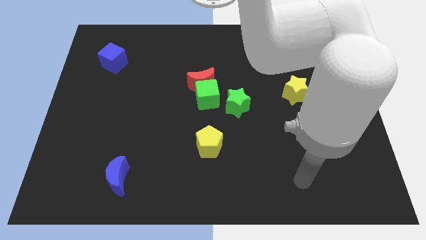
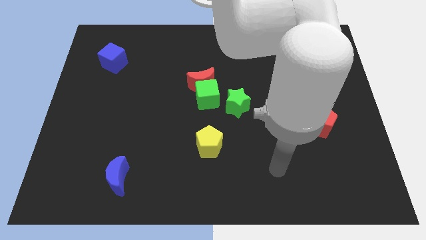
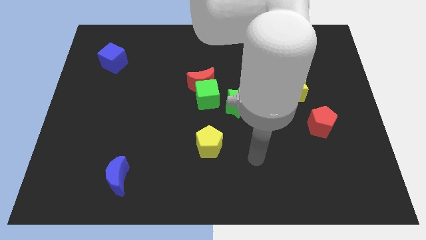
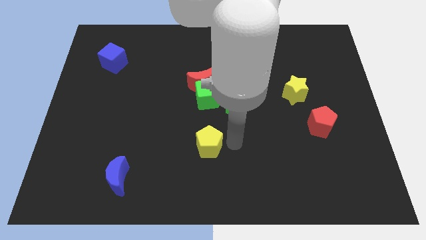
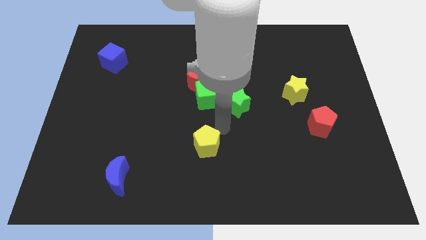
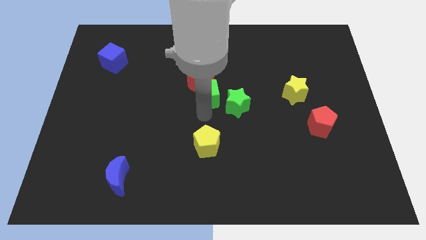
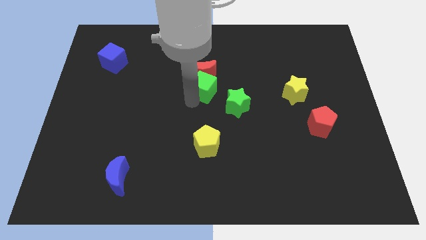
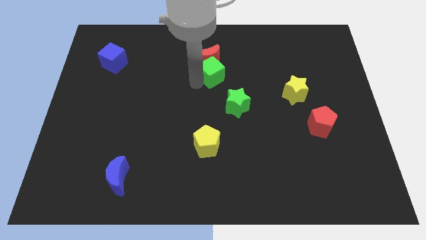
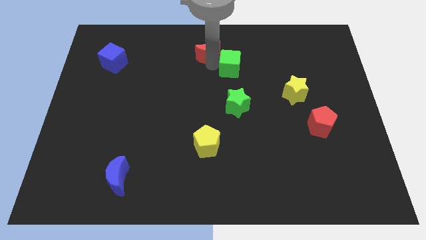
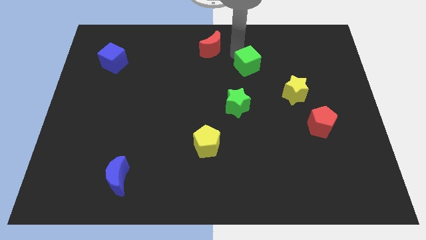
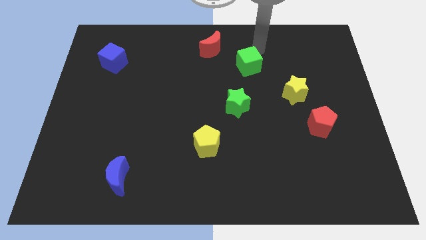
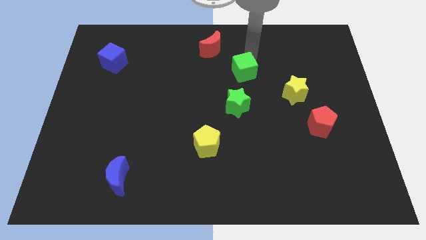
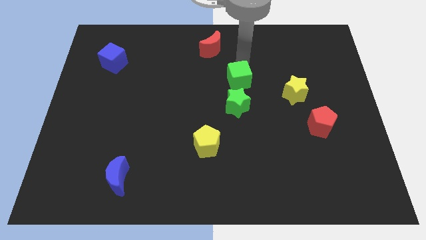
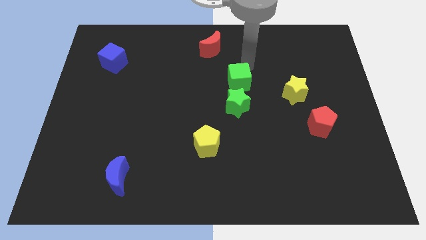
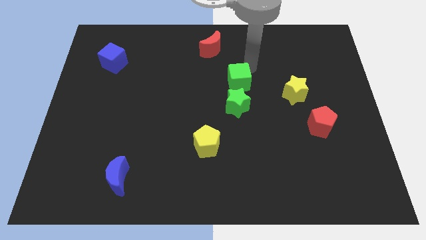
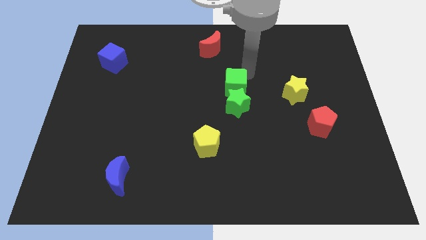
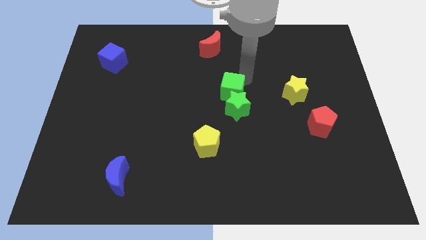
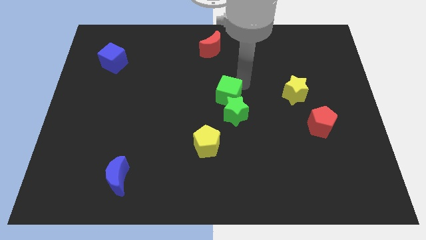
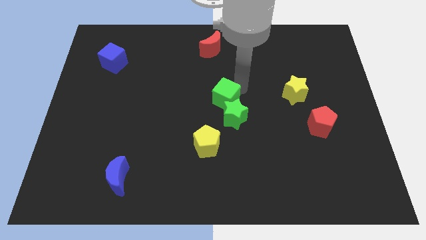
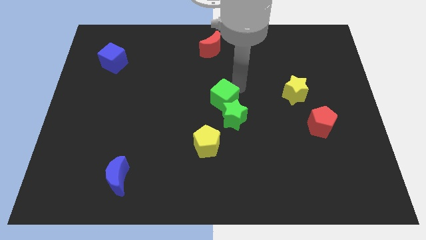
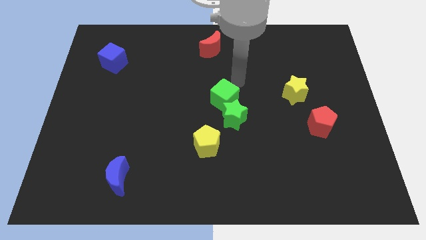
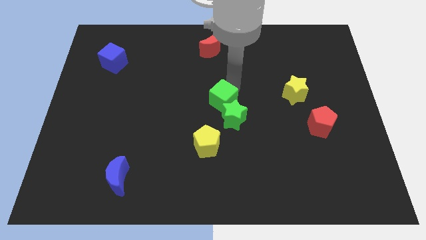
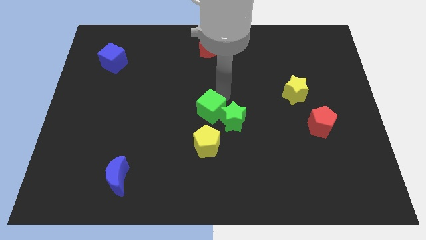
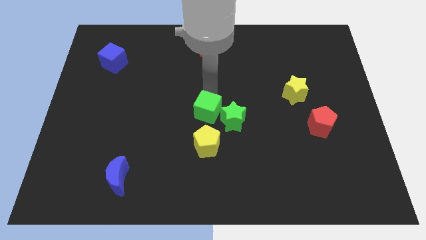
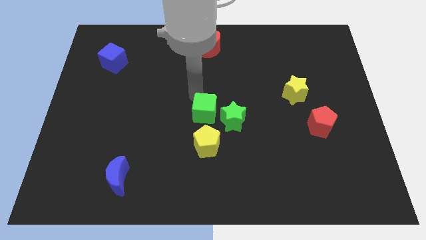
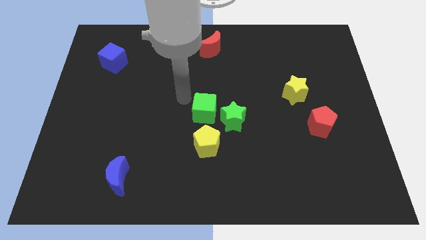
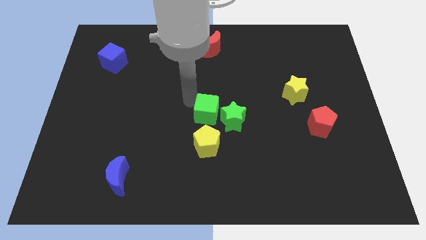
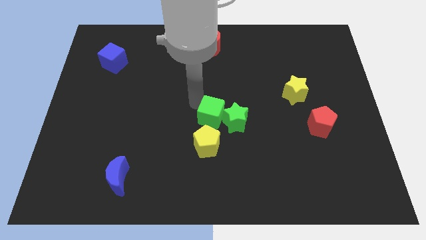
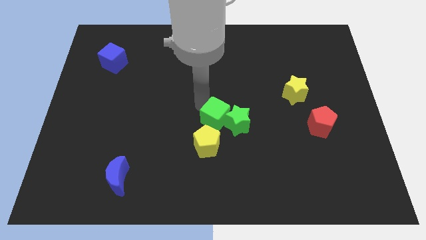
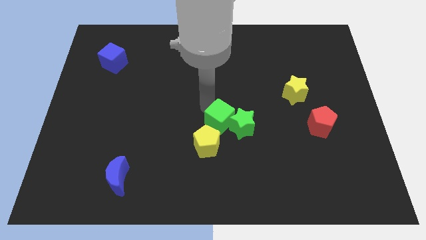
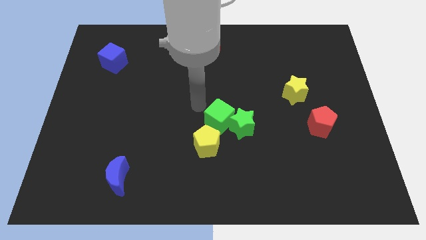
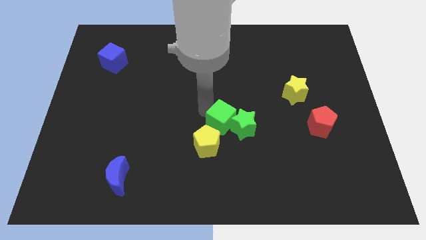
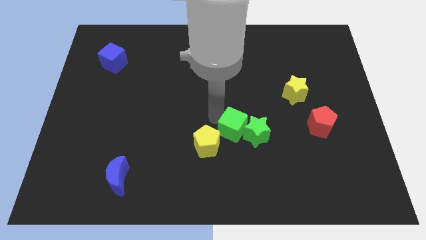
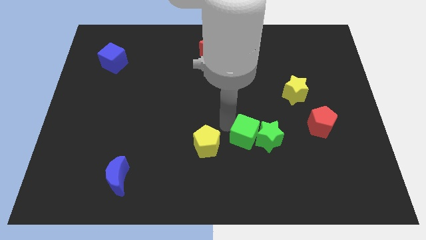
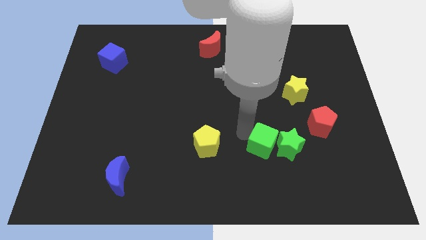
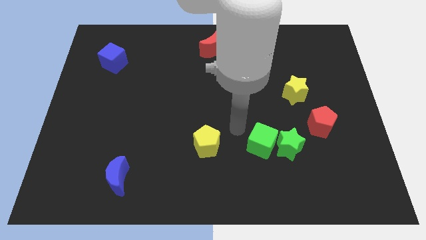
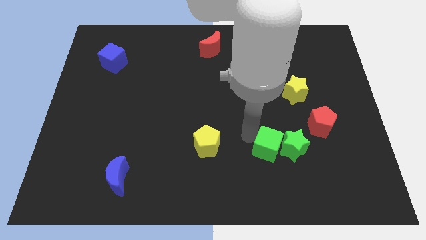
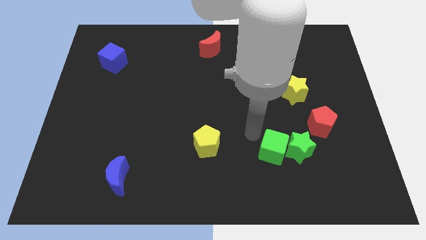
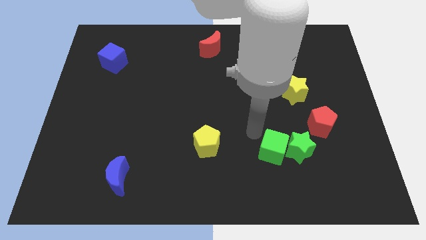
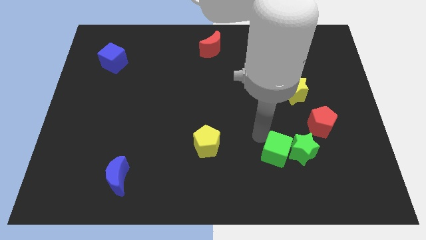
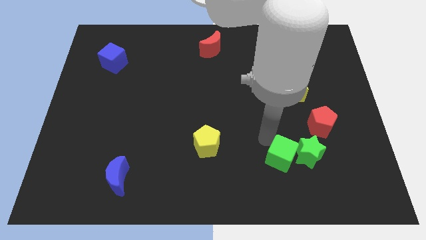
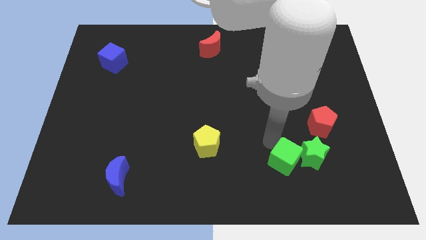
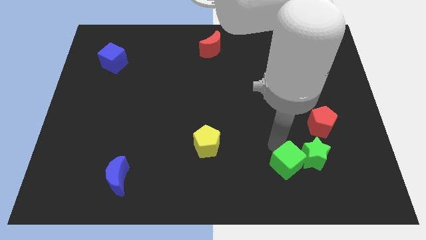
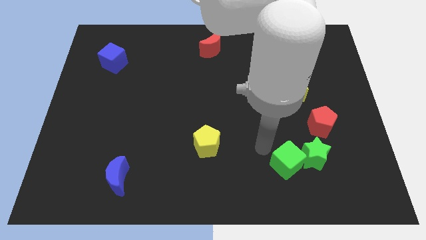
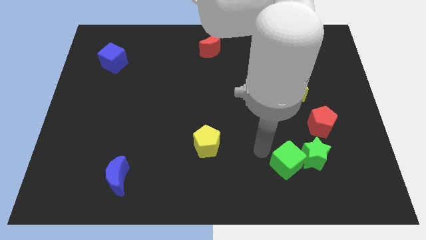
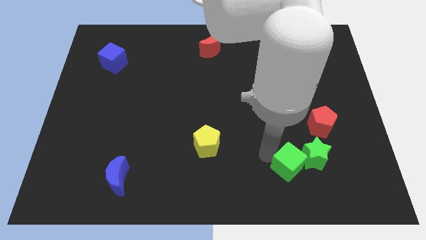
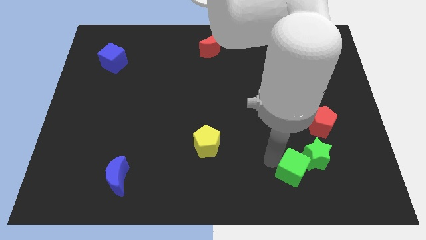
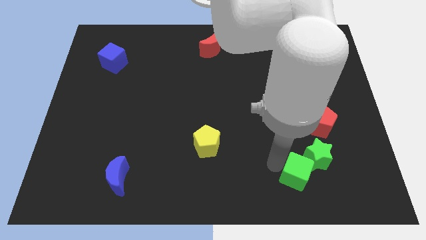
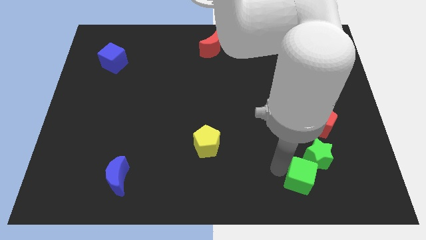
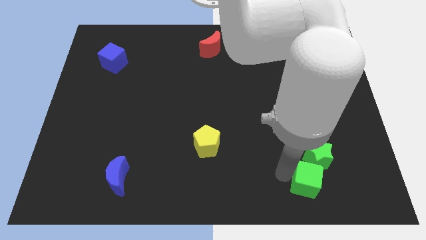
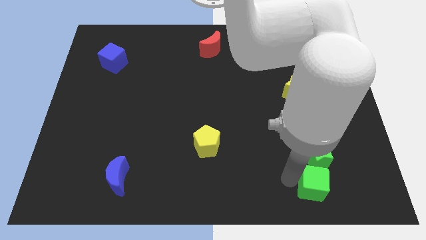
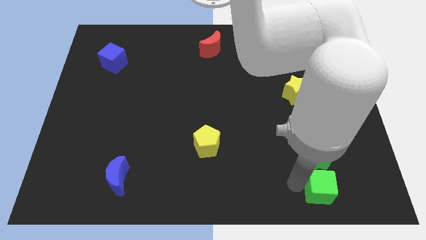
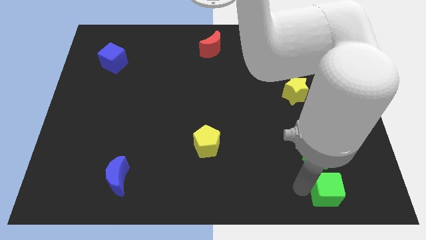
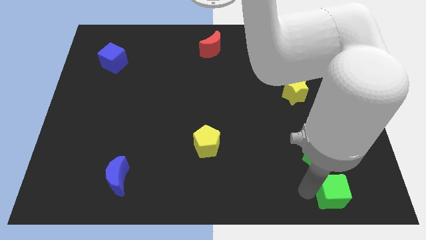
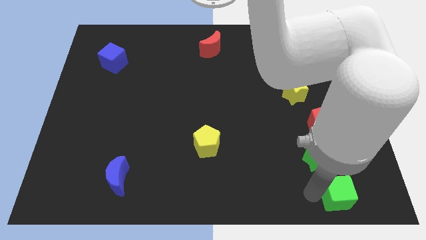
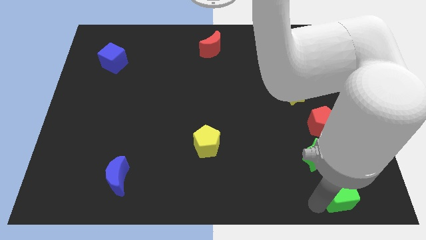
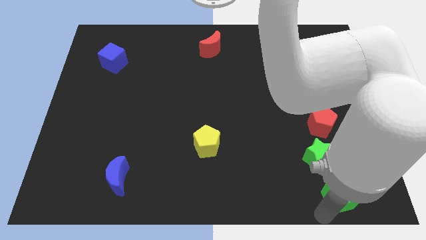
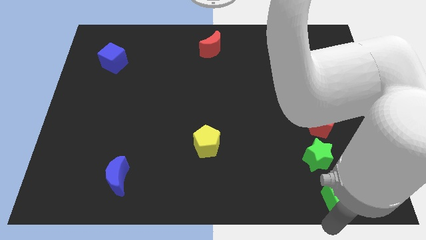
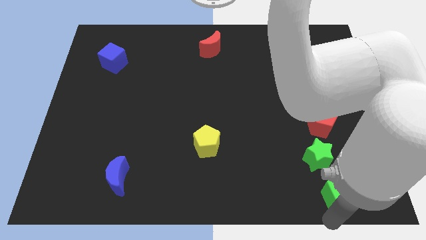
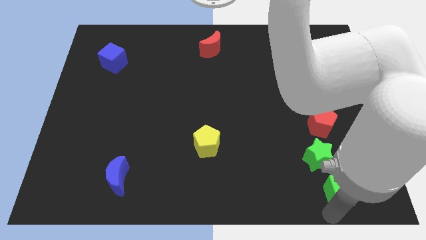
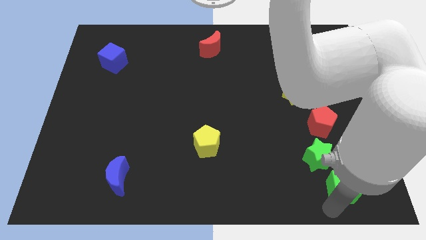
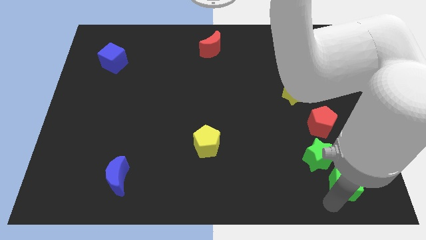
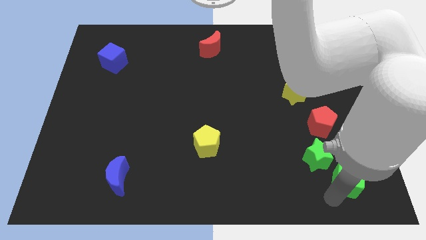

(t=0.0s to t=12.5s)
put the green cube to the bottom right corner

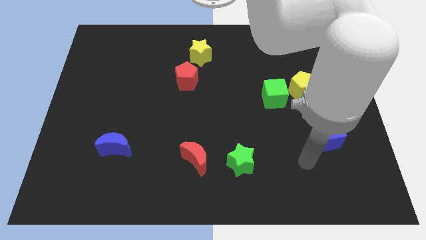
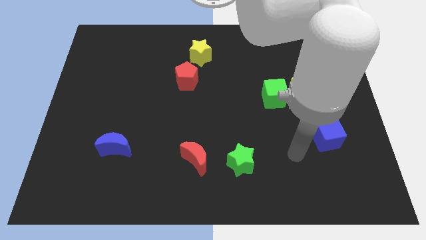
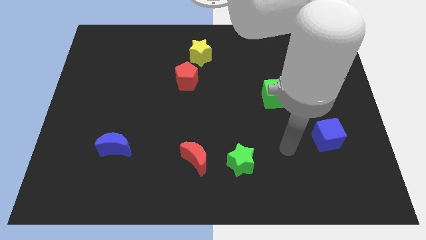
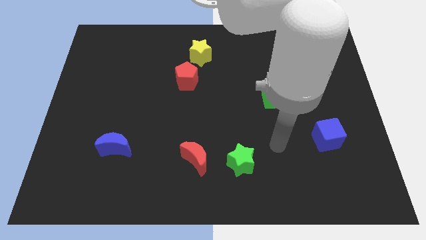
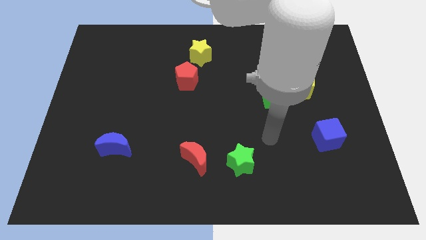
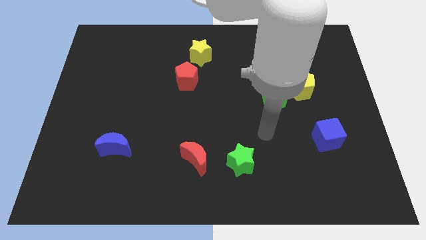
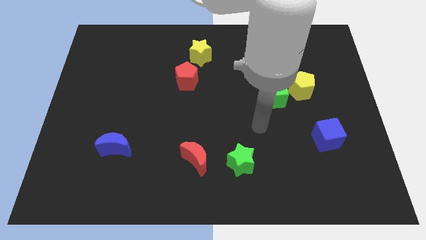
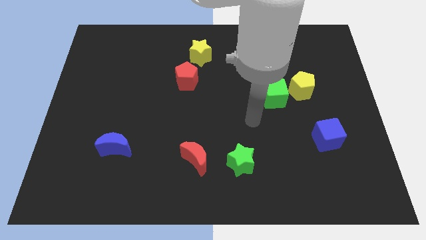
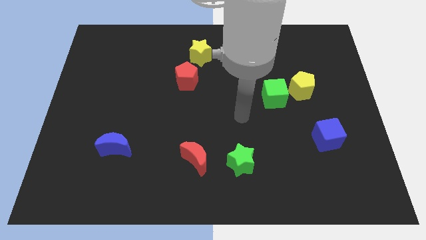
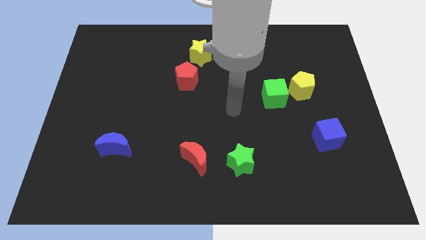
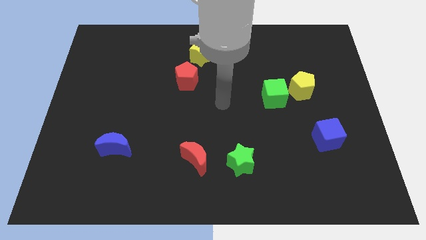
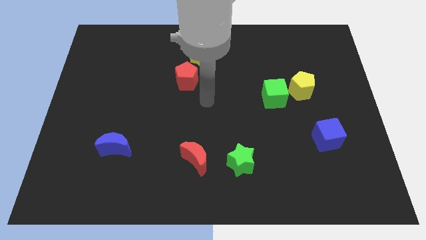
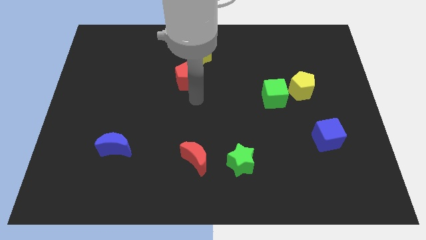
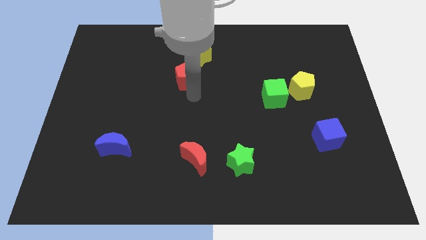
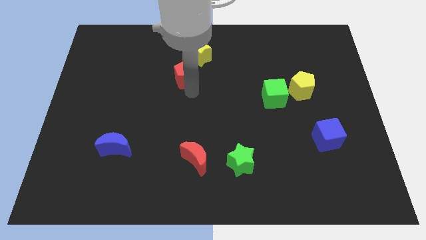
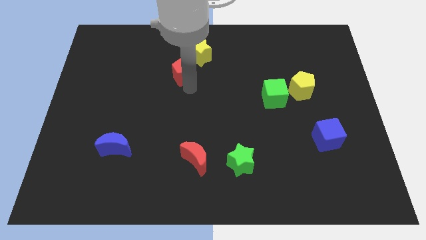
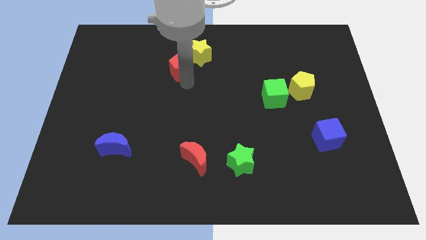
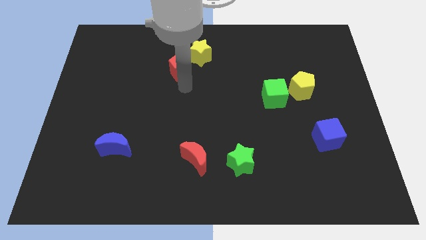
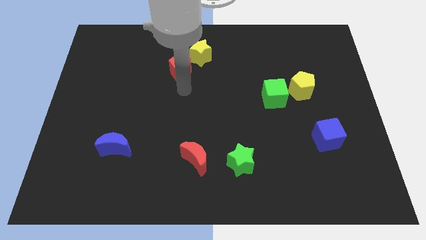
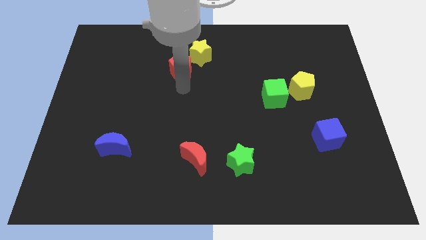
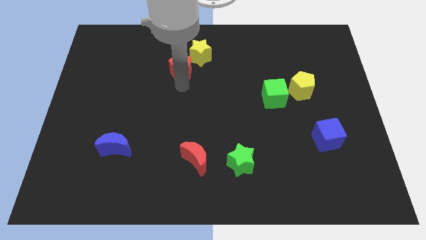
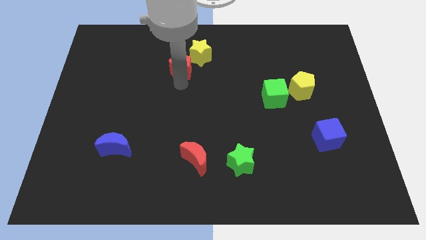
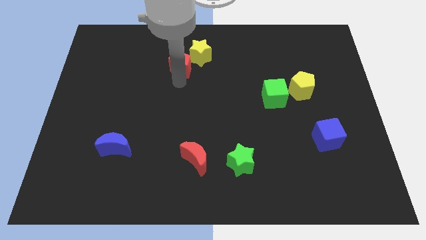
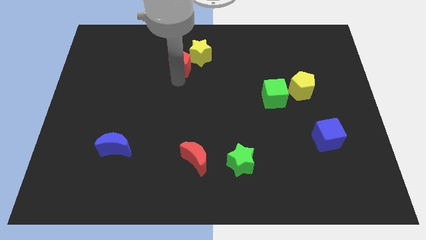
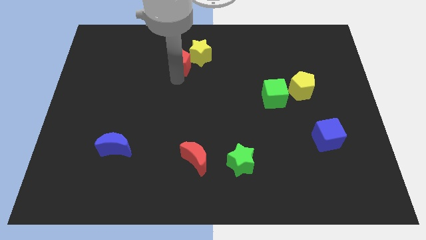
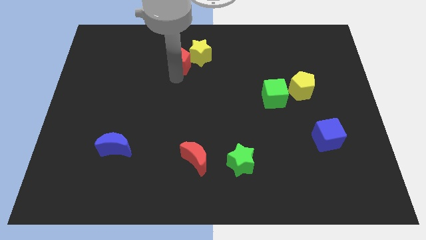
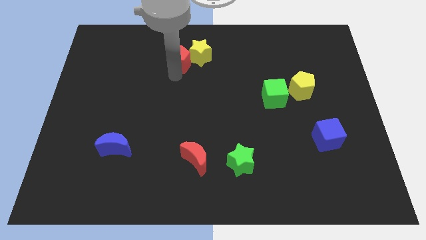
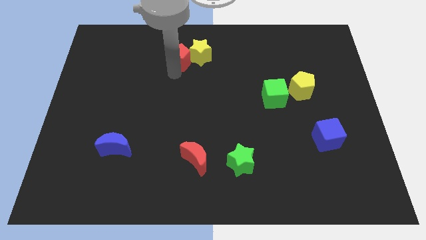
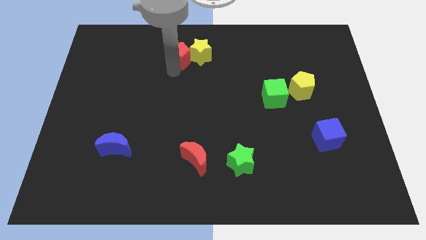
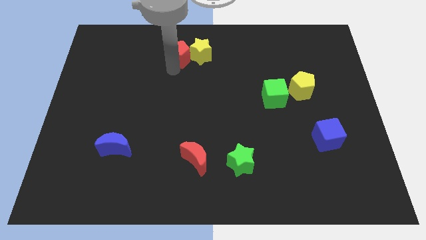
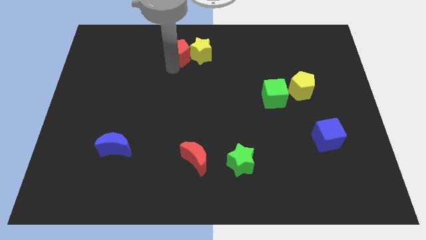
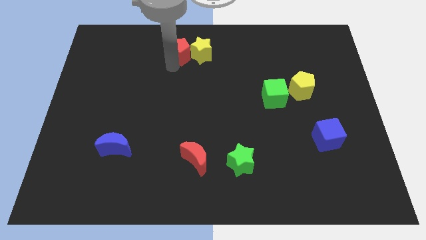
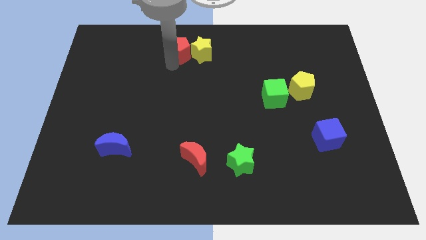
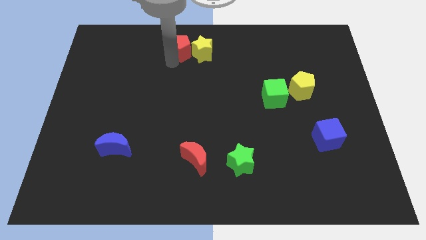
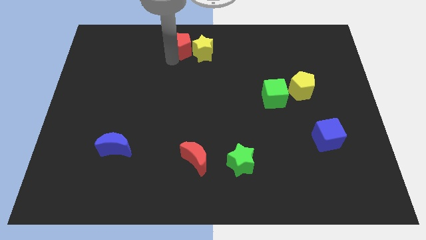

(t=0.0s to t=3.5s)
push the red pentagon to the top
